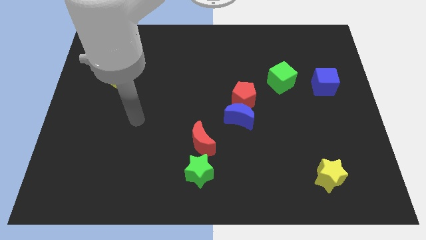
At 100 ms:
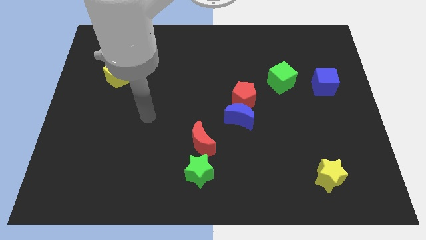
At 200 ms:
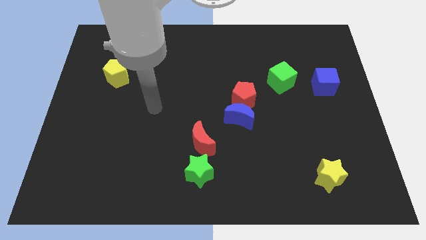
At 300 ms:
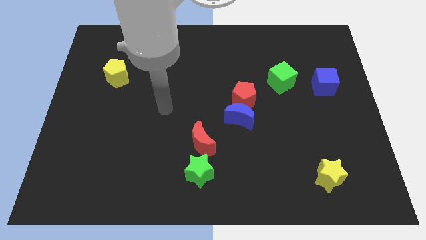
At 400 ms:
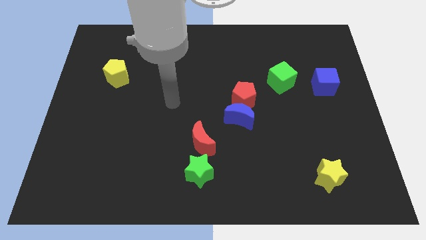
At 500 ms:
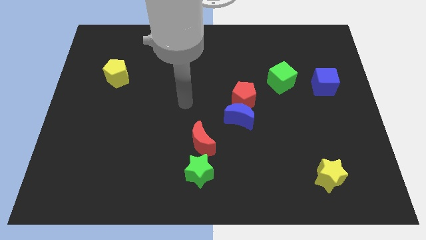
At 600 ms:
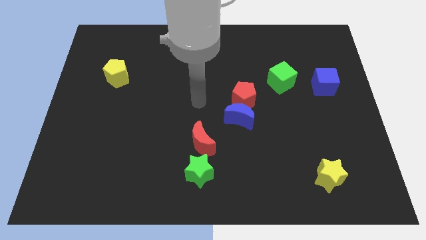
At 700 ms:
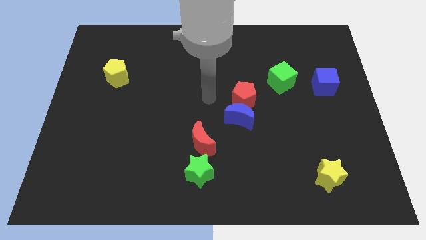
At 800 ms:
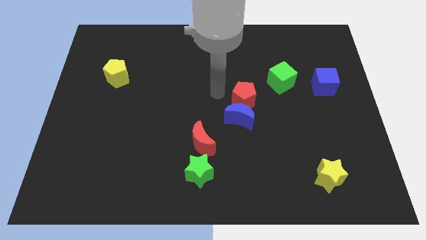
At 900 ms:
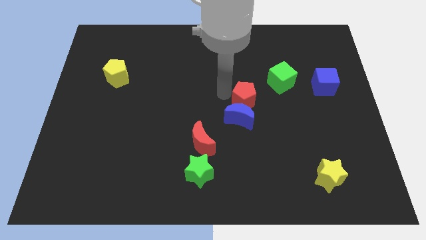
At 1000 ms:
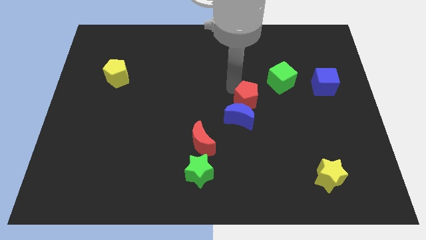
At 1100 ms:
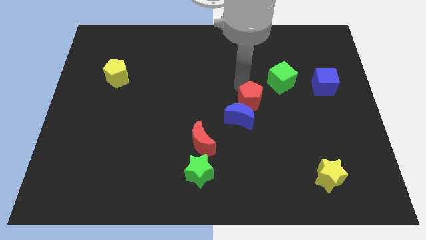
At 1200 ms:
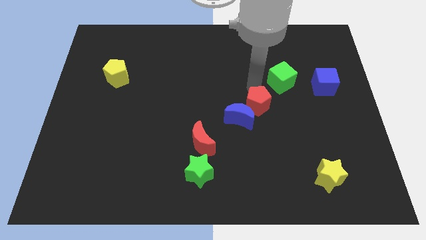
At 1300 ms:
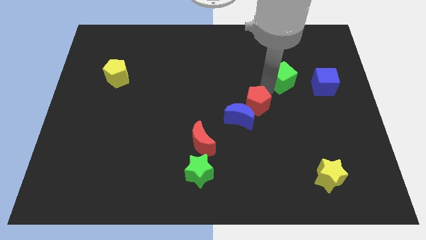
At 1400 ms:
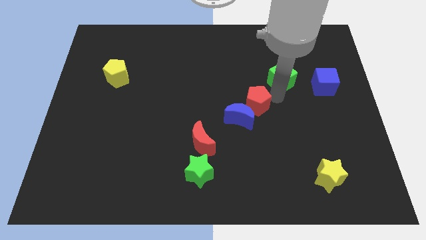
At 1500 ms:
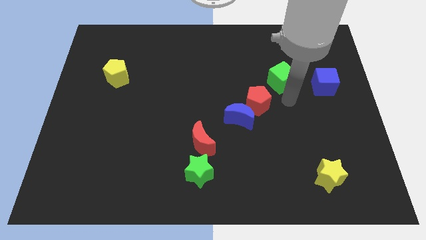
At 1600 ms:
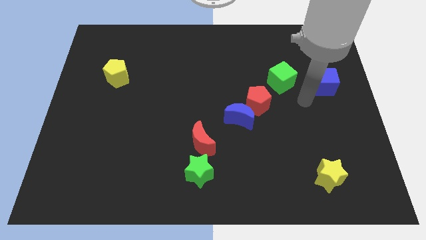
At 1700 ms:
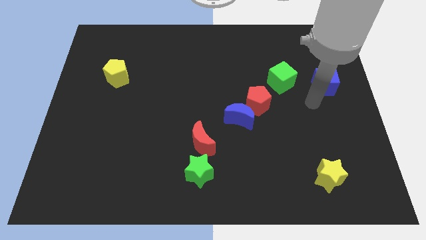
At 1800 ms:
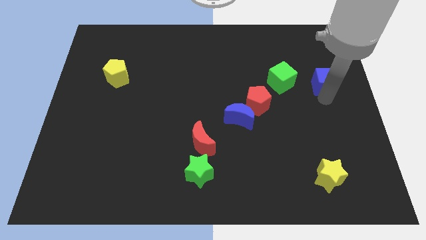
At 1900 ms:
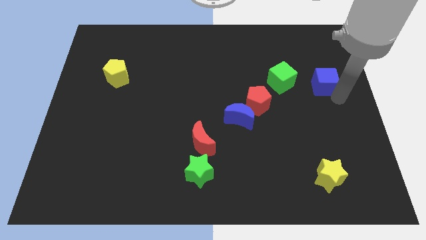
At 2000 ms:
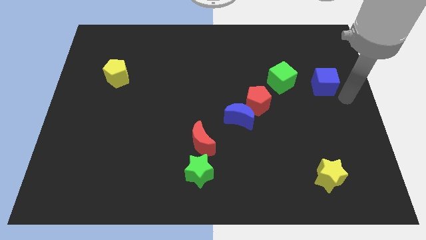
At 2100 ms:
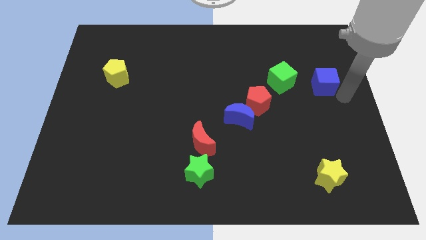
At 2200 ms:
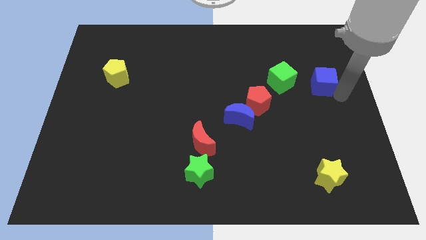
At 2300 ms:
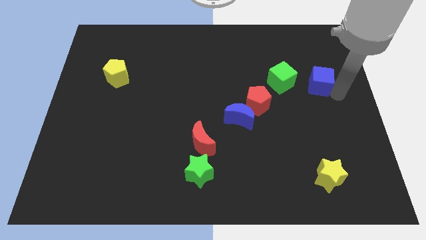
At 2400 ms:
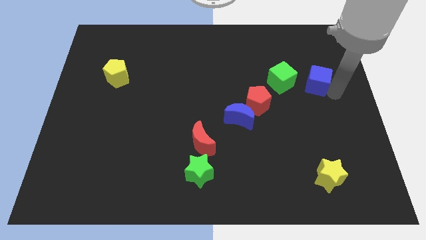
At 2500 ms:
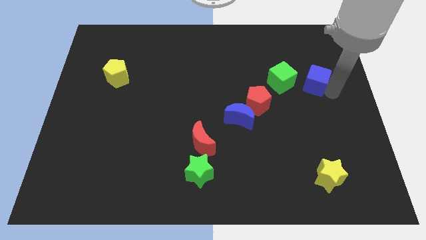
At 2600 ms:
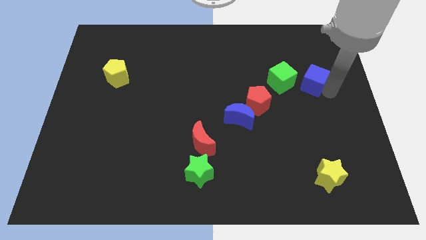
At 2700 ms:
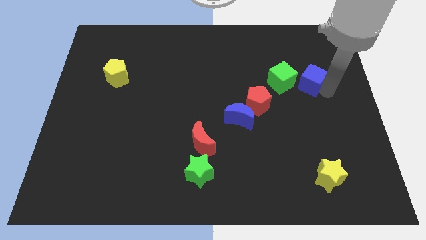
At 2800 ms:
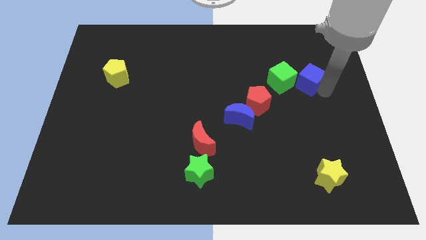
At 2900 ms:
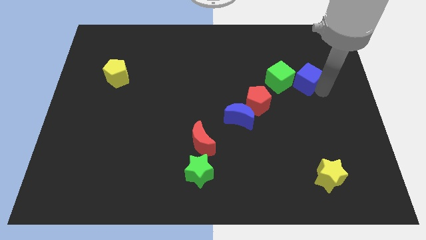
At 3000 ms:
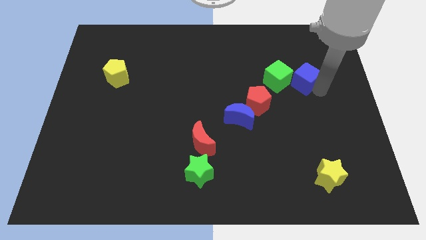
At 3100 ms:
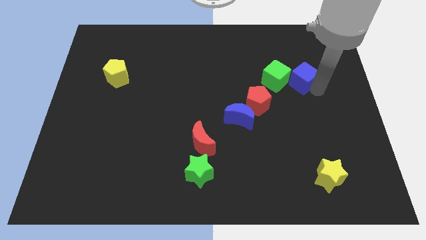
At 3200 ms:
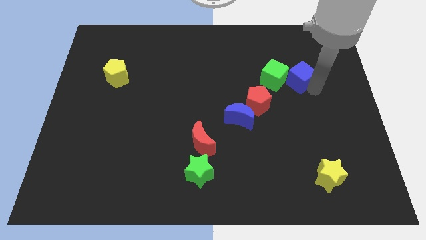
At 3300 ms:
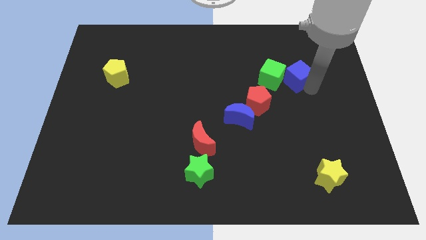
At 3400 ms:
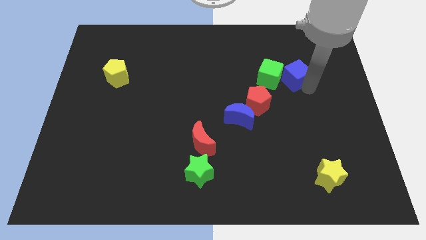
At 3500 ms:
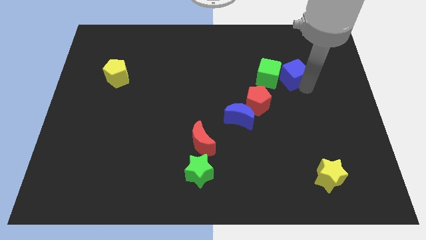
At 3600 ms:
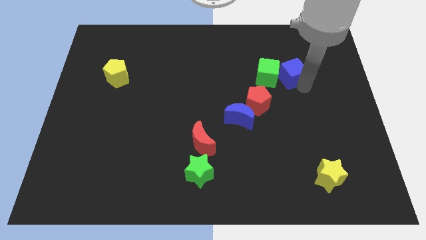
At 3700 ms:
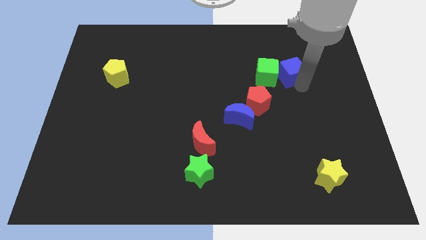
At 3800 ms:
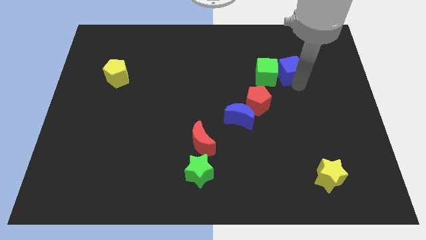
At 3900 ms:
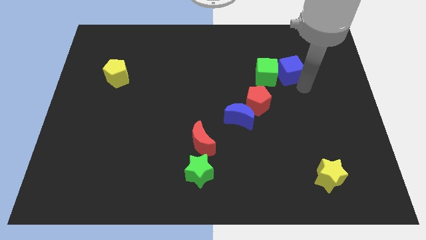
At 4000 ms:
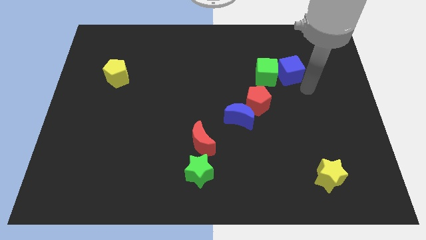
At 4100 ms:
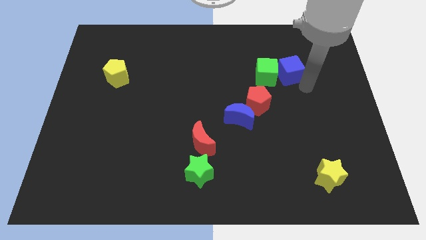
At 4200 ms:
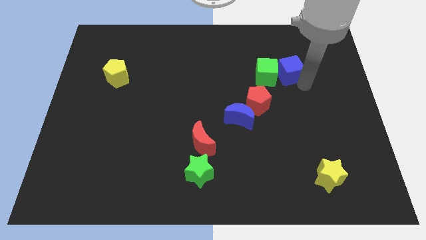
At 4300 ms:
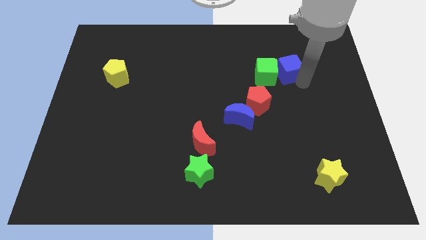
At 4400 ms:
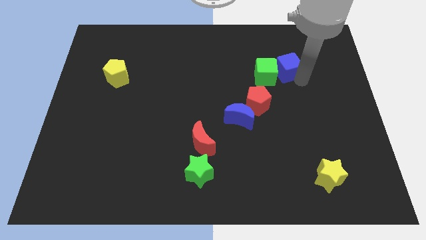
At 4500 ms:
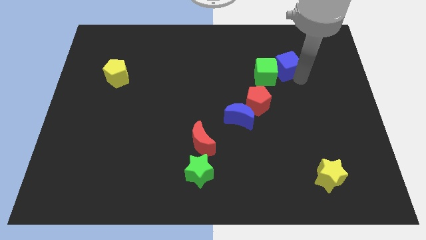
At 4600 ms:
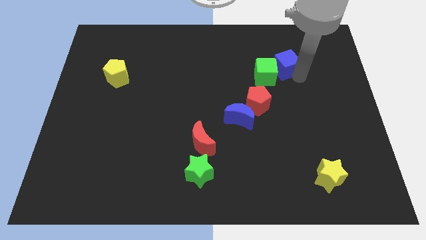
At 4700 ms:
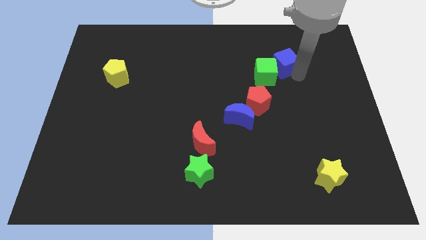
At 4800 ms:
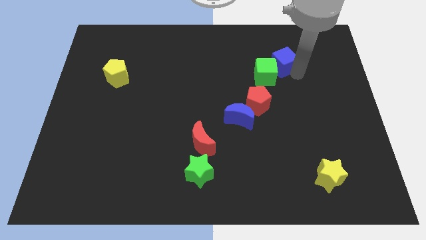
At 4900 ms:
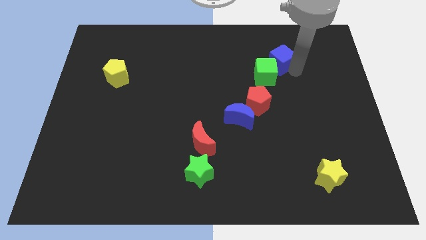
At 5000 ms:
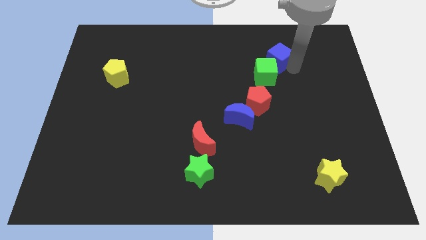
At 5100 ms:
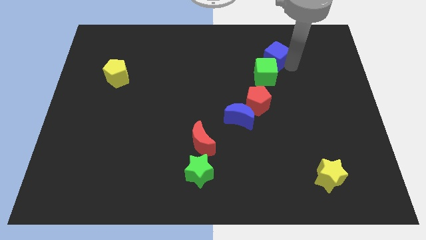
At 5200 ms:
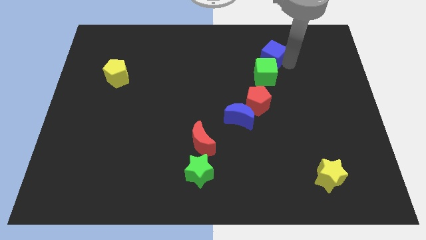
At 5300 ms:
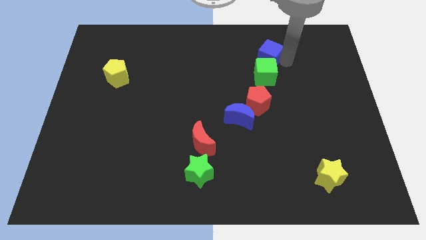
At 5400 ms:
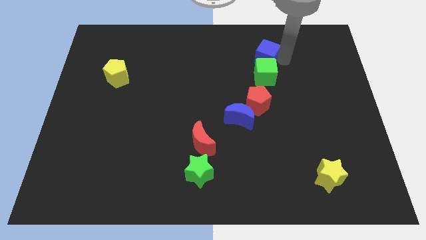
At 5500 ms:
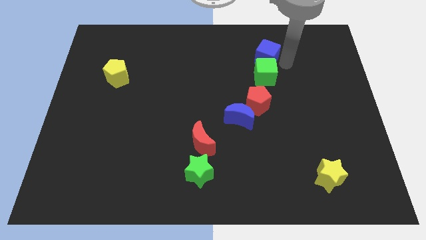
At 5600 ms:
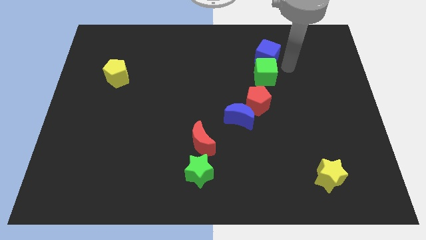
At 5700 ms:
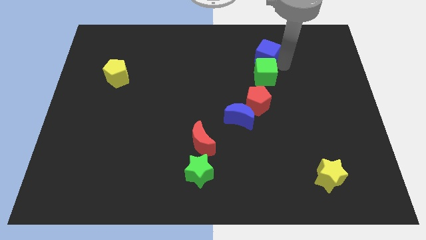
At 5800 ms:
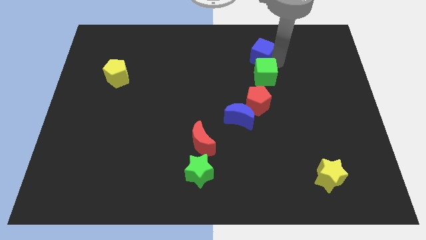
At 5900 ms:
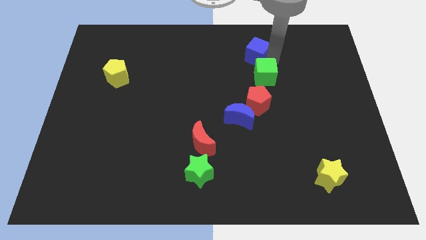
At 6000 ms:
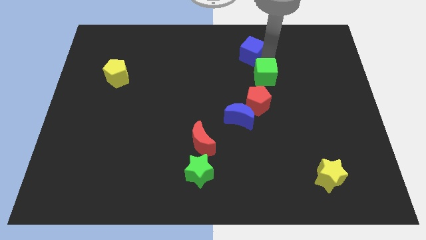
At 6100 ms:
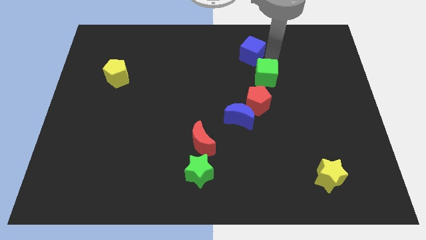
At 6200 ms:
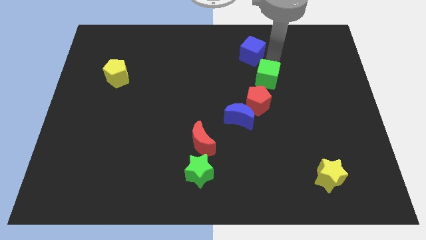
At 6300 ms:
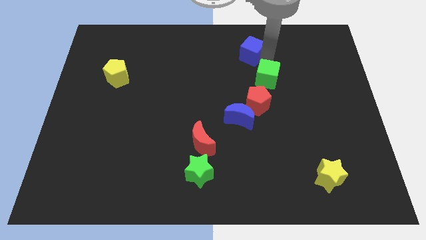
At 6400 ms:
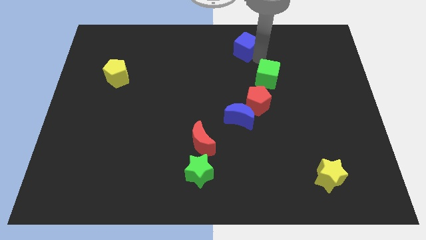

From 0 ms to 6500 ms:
move the blue cube to the top side
